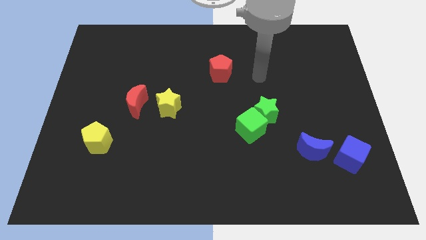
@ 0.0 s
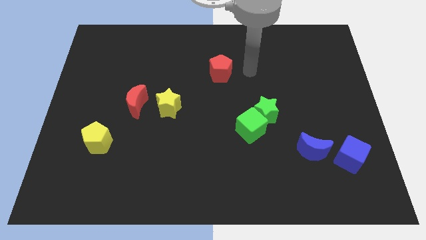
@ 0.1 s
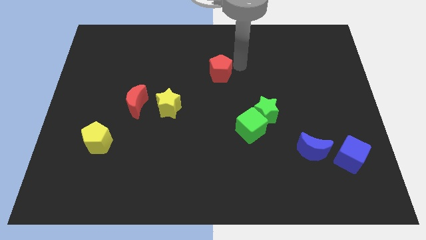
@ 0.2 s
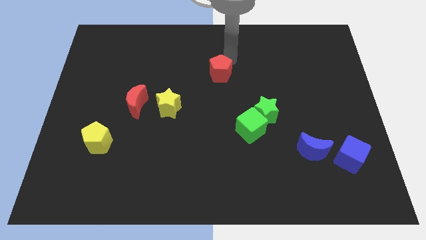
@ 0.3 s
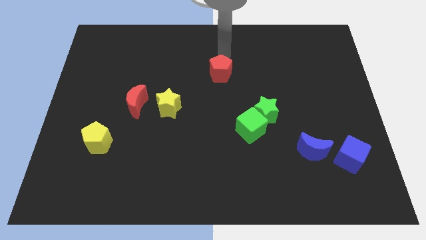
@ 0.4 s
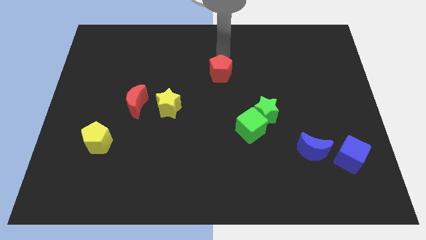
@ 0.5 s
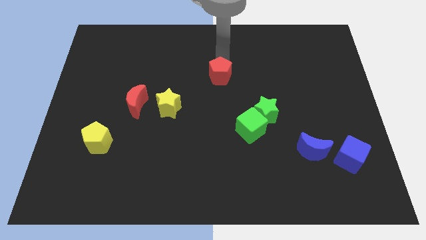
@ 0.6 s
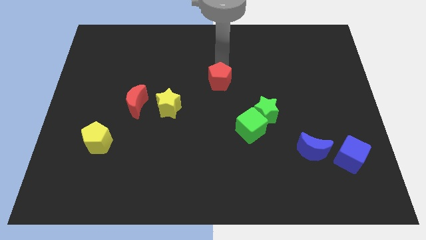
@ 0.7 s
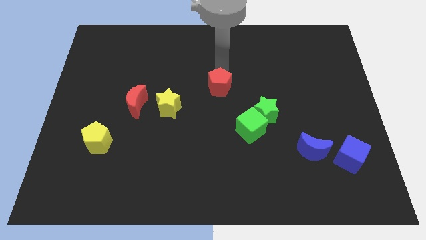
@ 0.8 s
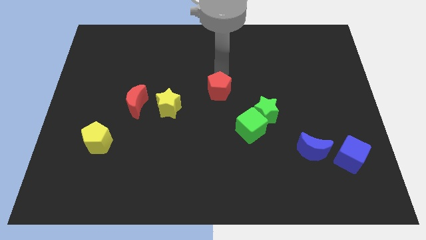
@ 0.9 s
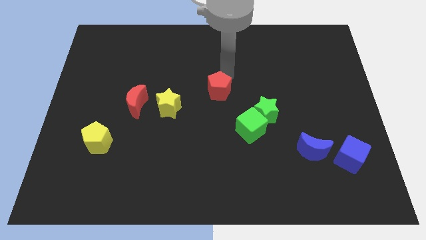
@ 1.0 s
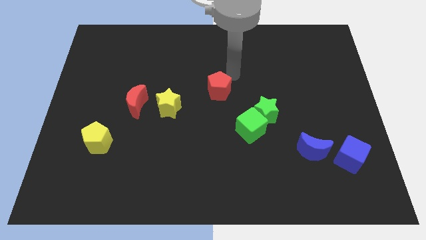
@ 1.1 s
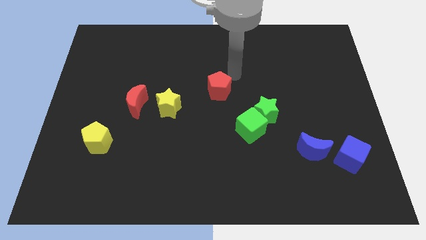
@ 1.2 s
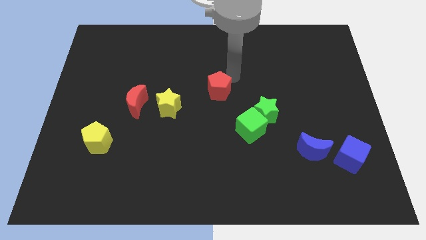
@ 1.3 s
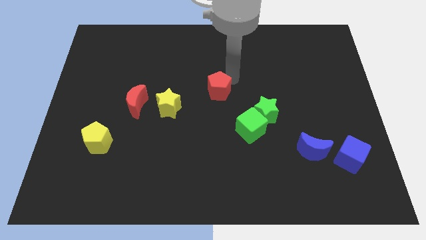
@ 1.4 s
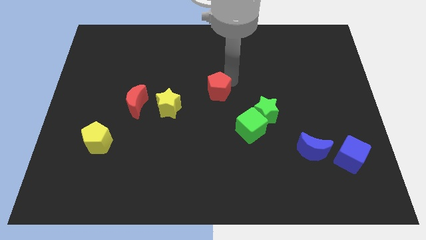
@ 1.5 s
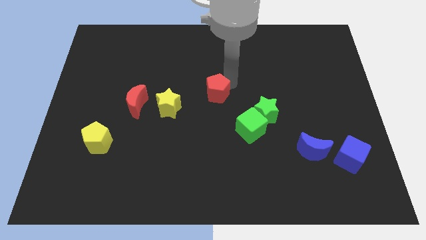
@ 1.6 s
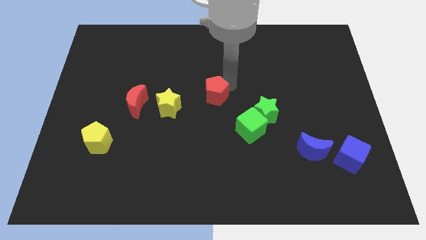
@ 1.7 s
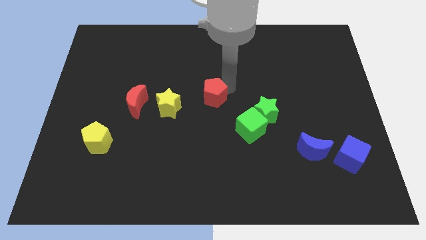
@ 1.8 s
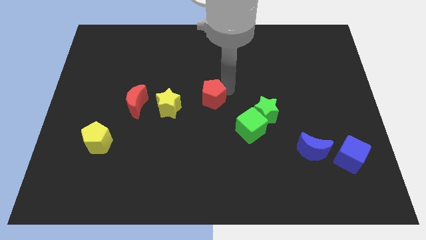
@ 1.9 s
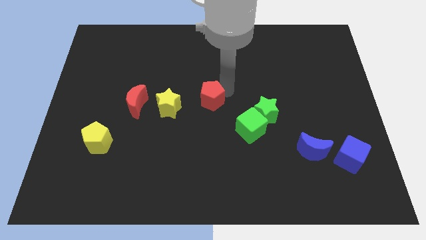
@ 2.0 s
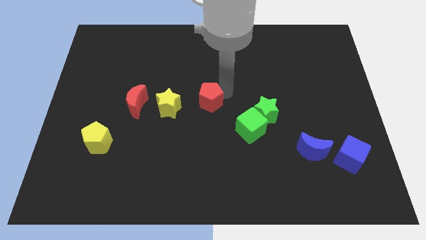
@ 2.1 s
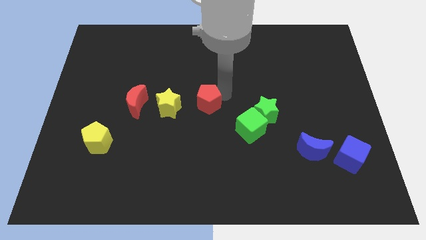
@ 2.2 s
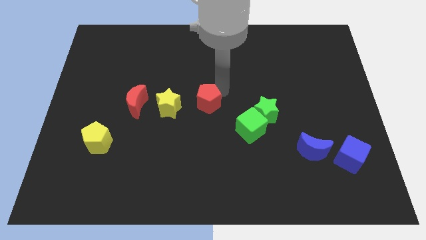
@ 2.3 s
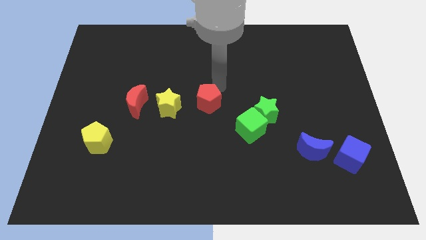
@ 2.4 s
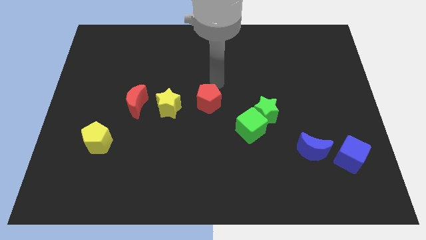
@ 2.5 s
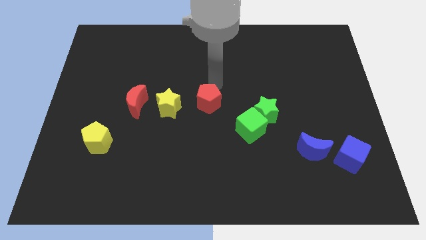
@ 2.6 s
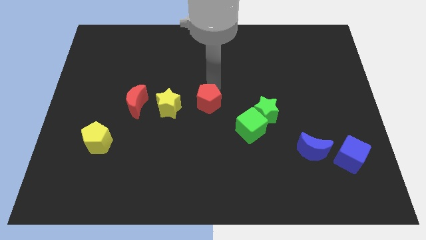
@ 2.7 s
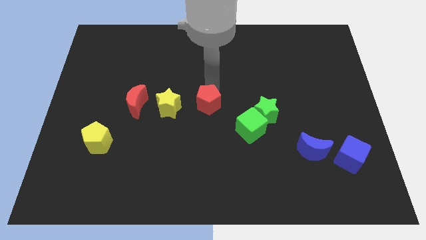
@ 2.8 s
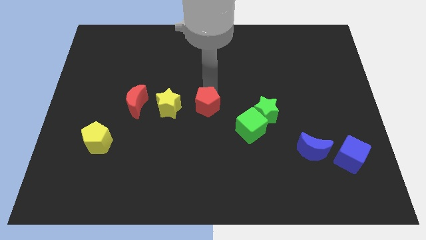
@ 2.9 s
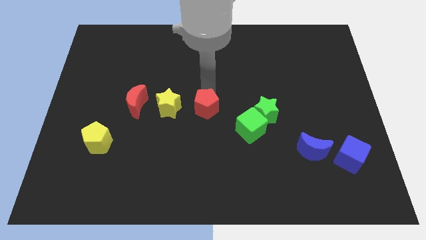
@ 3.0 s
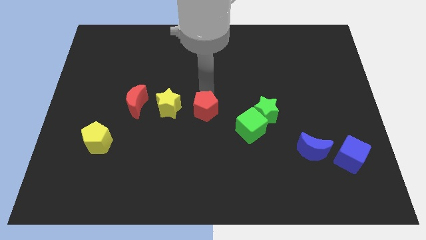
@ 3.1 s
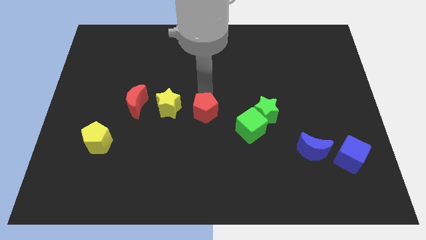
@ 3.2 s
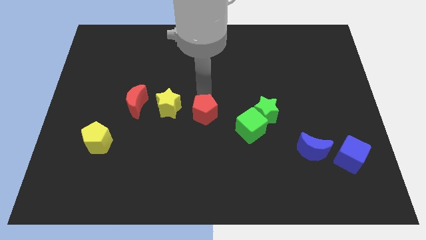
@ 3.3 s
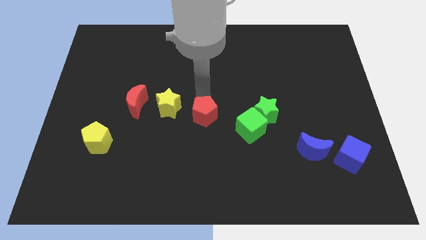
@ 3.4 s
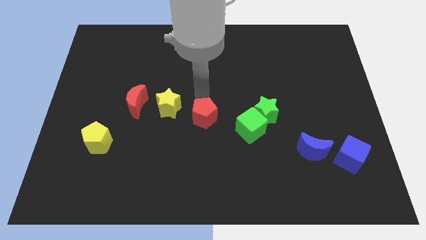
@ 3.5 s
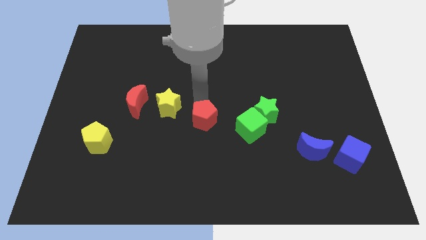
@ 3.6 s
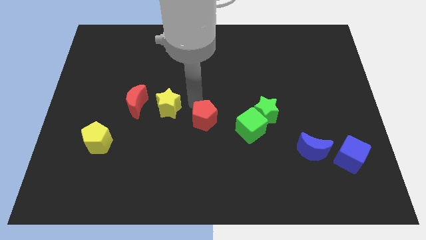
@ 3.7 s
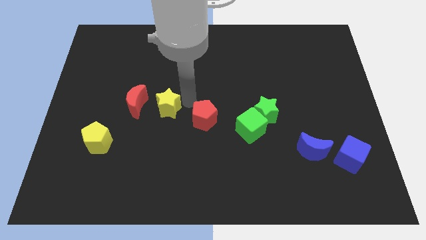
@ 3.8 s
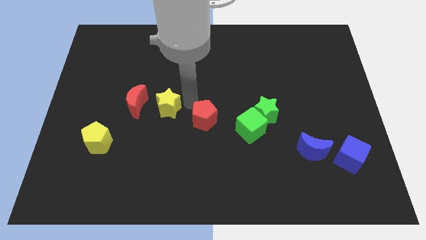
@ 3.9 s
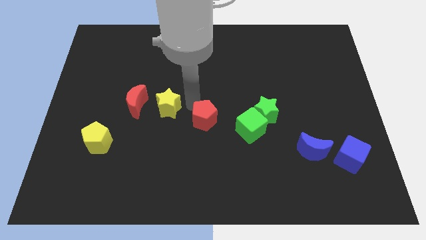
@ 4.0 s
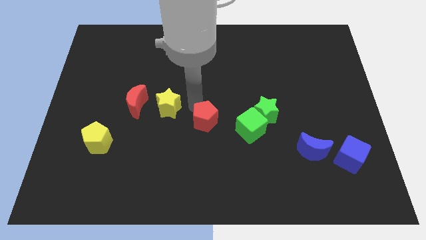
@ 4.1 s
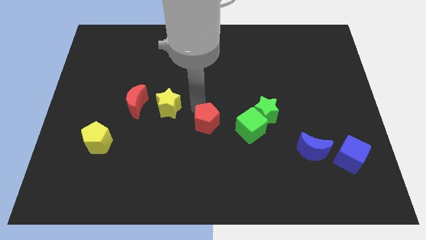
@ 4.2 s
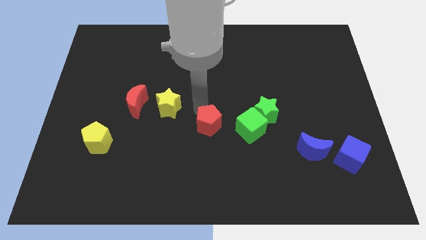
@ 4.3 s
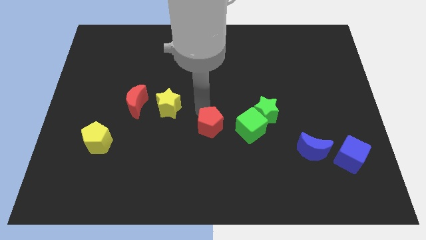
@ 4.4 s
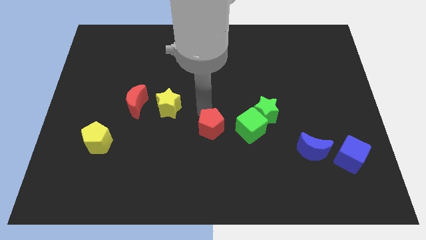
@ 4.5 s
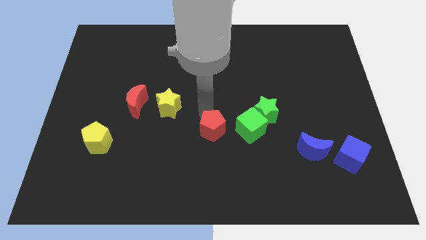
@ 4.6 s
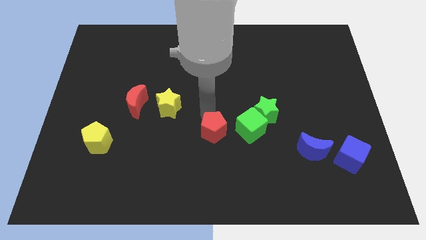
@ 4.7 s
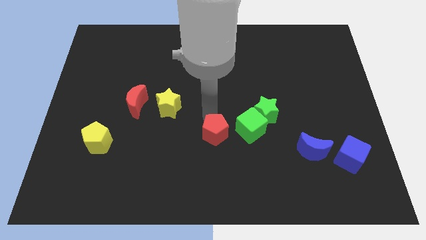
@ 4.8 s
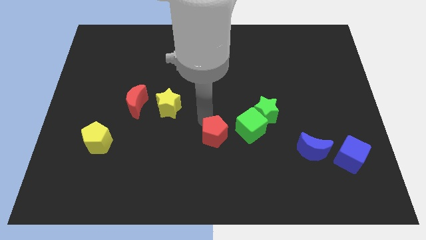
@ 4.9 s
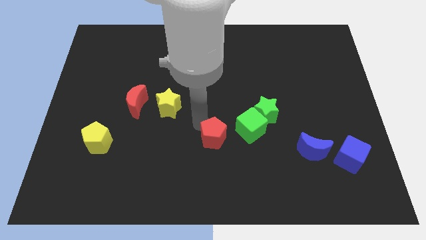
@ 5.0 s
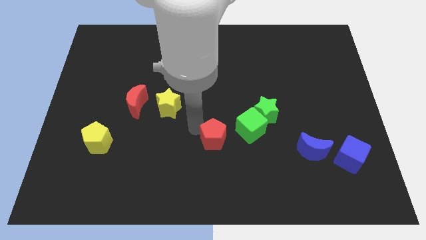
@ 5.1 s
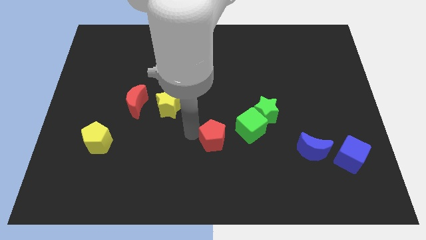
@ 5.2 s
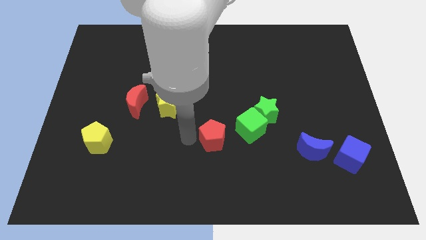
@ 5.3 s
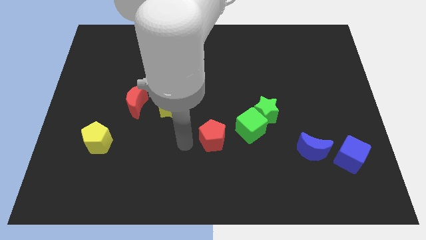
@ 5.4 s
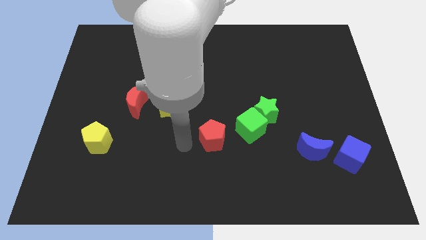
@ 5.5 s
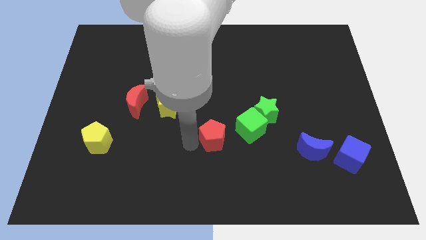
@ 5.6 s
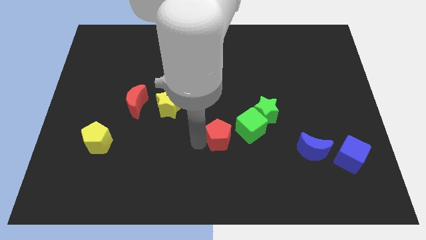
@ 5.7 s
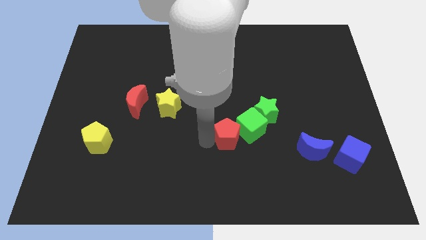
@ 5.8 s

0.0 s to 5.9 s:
put the red pentagon diagonally down and to the left of the green star
